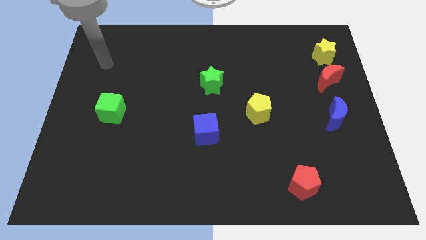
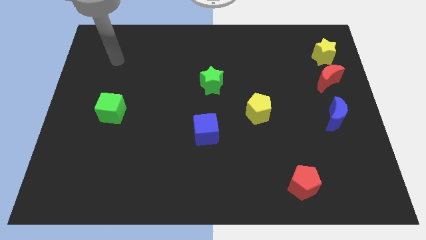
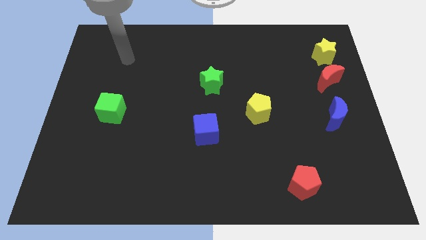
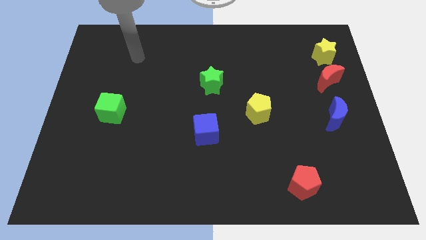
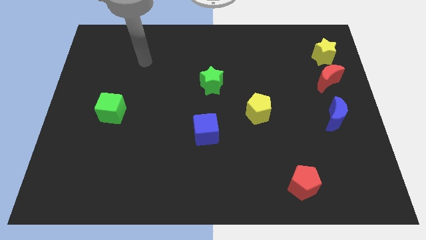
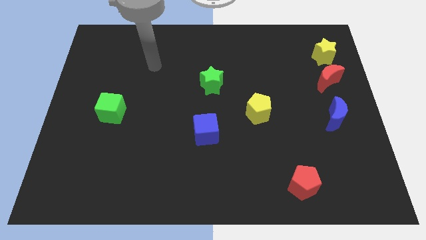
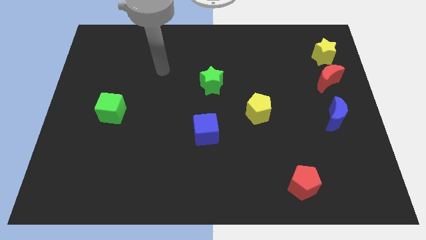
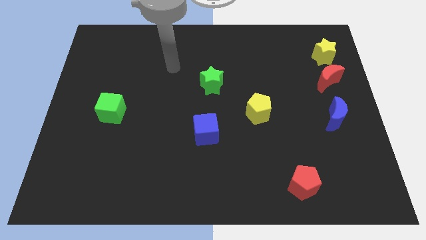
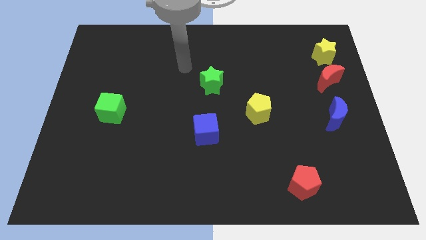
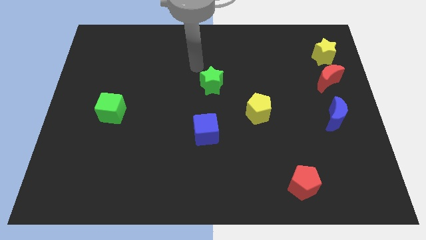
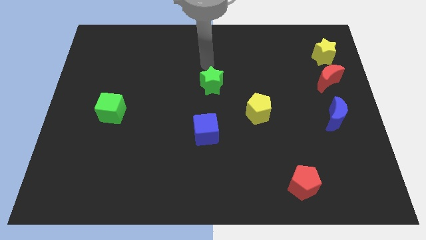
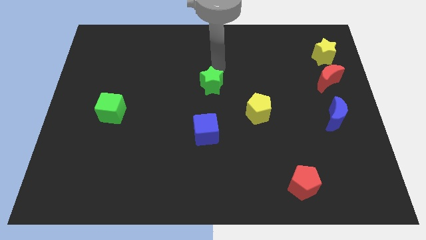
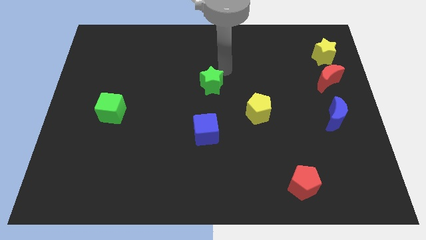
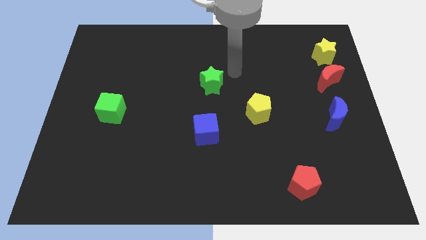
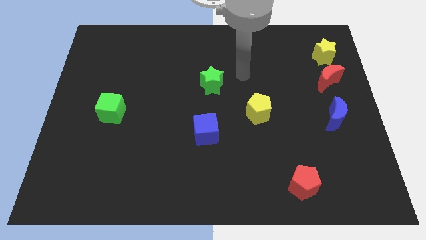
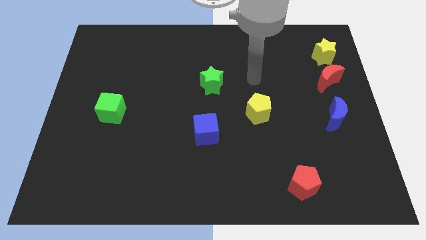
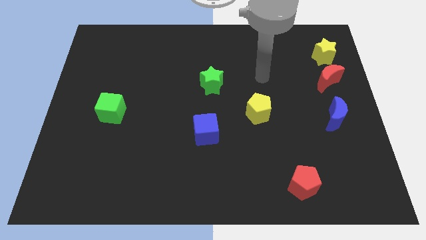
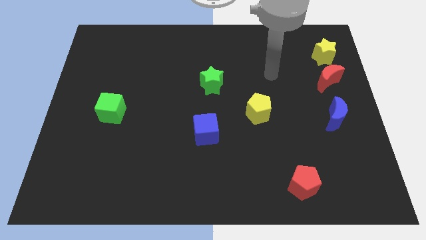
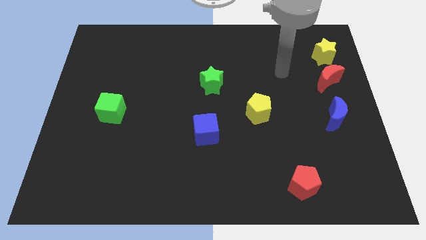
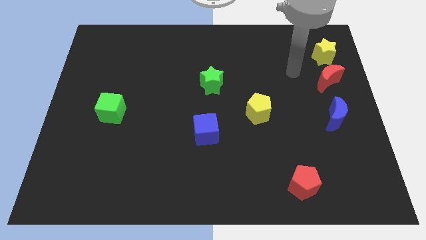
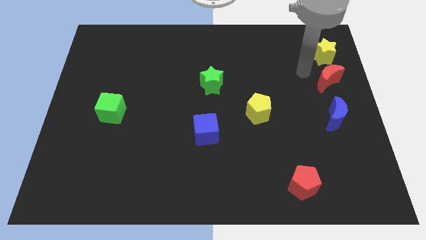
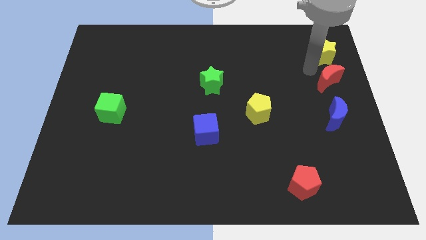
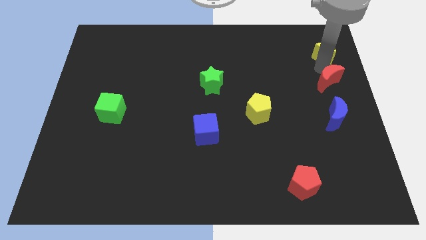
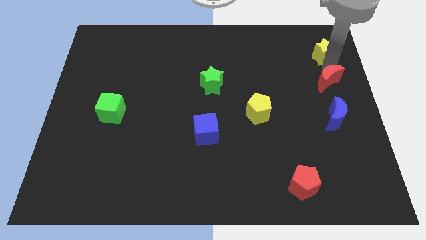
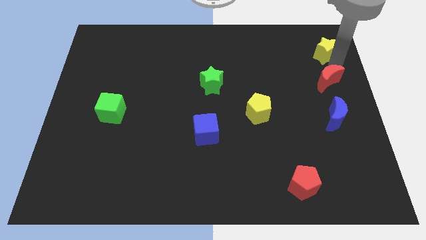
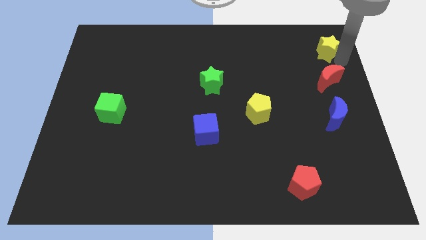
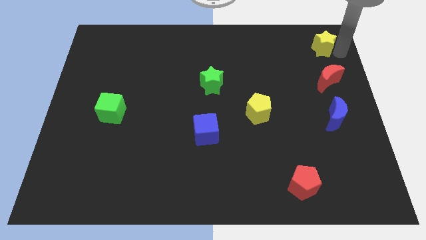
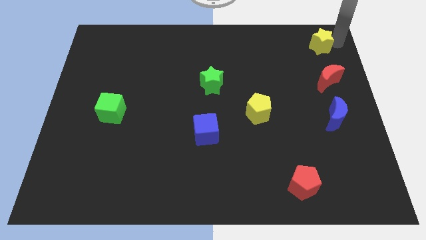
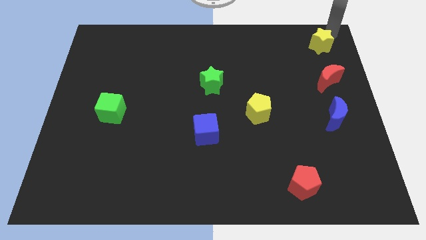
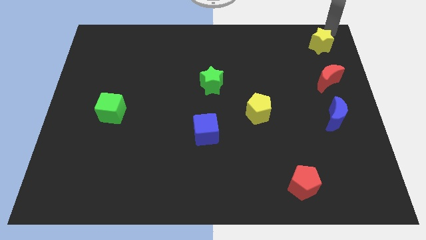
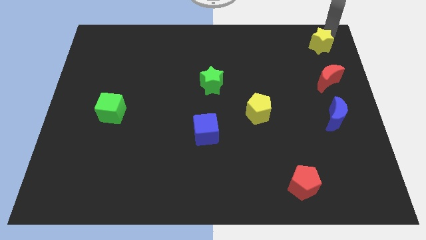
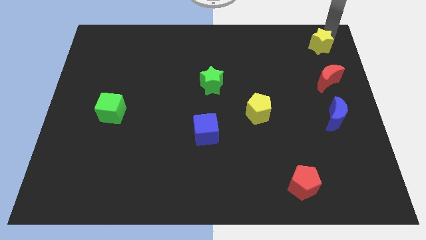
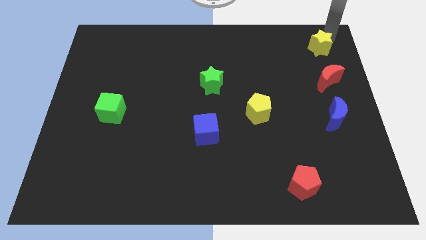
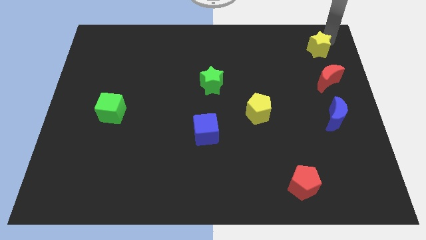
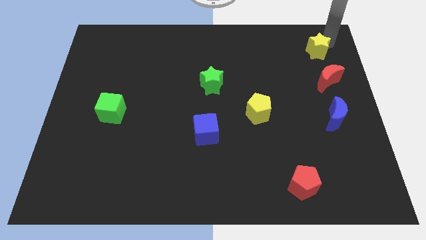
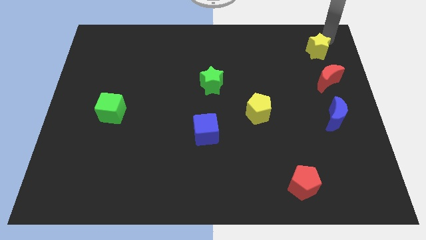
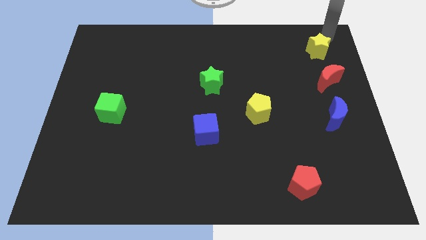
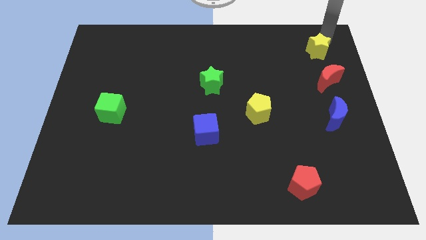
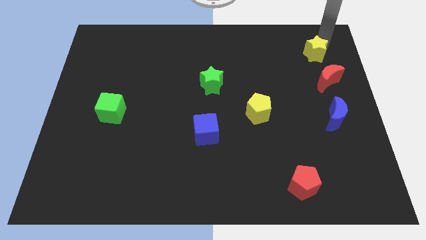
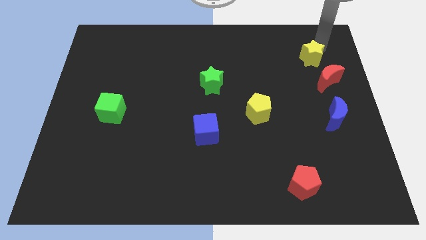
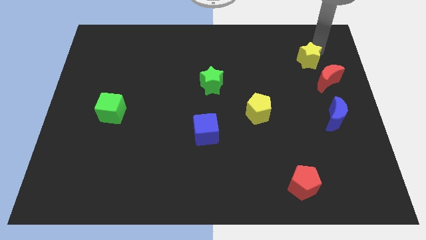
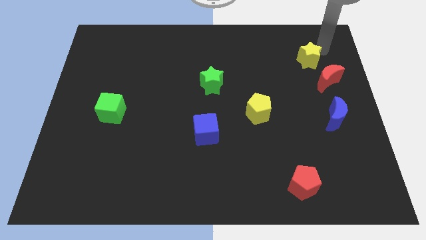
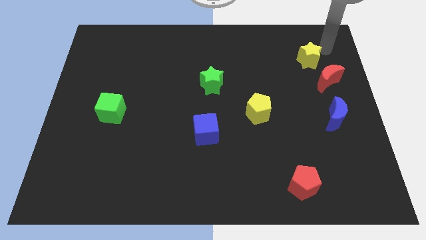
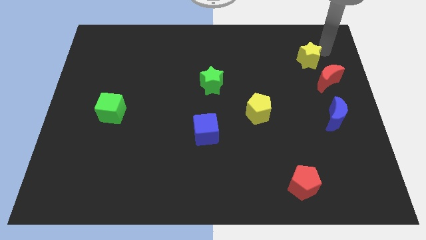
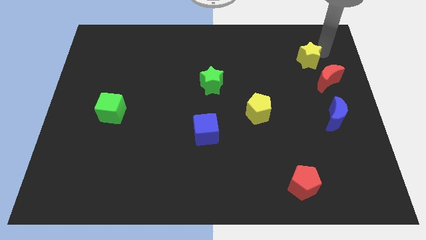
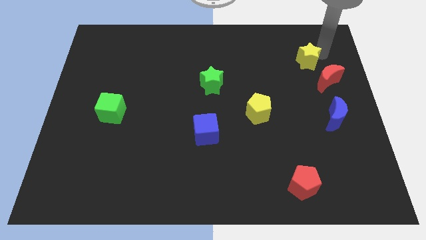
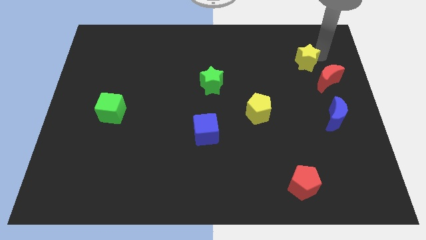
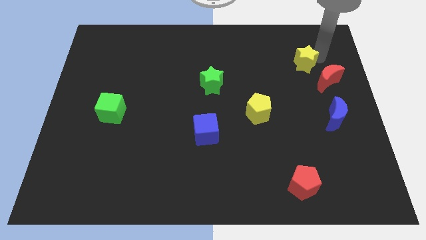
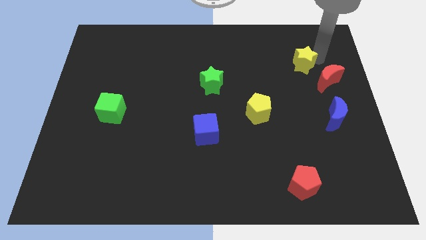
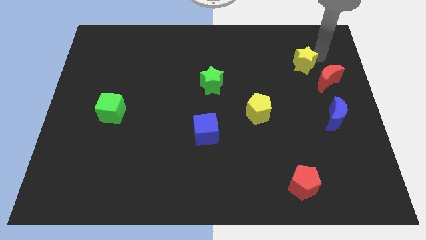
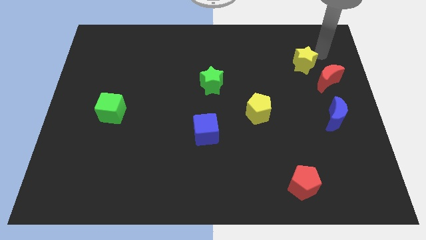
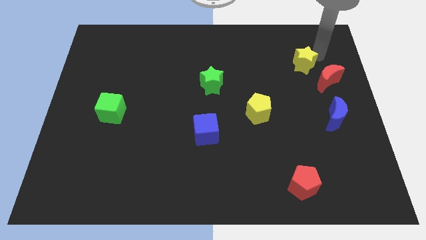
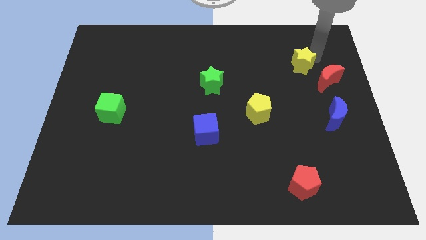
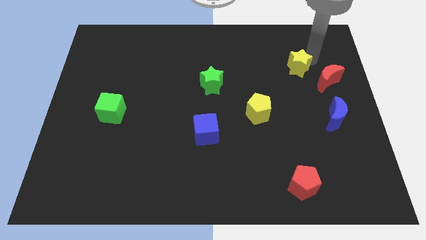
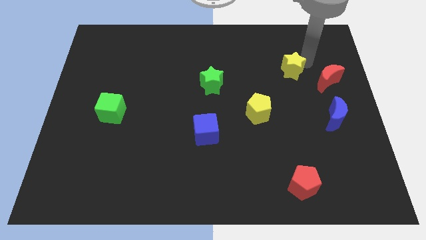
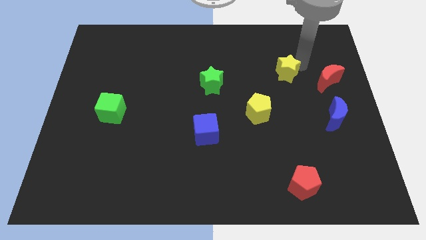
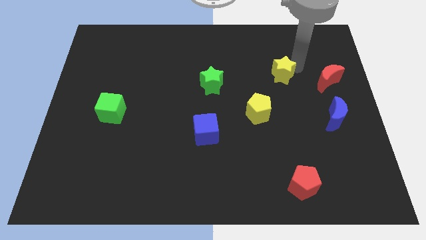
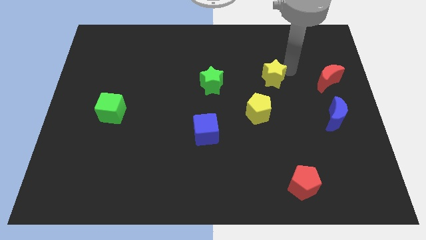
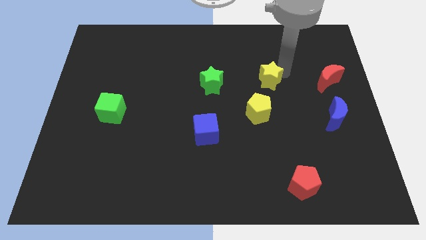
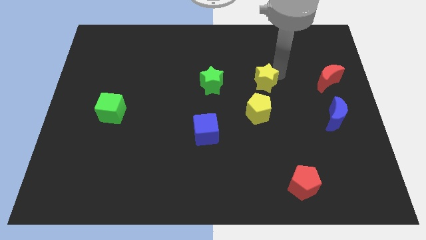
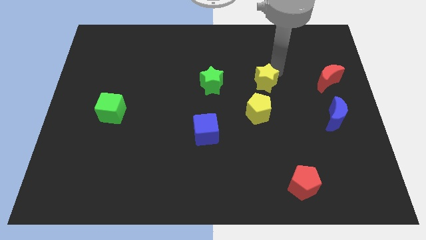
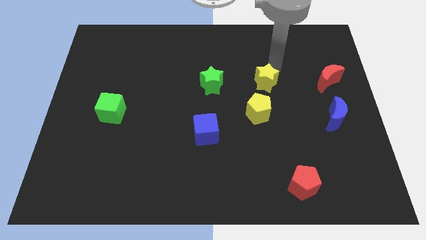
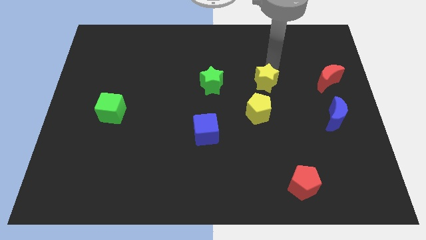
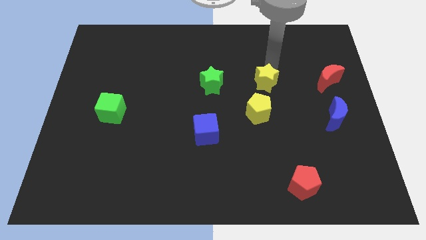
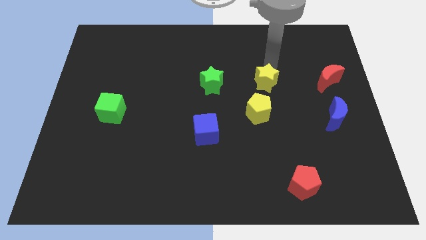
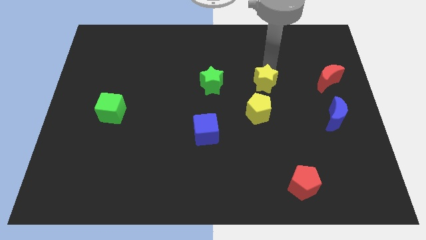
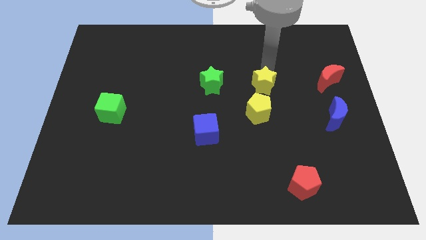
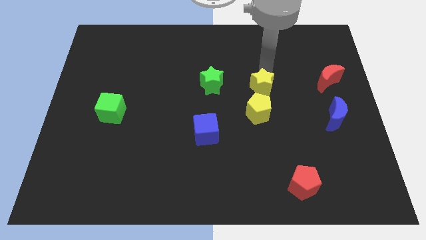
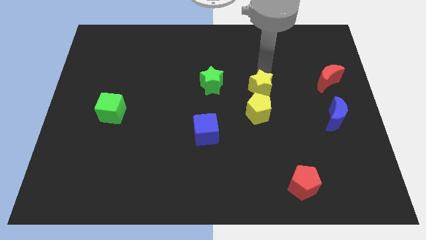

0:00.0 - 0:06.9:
move the yellow star diagonally downwards and to the left

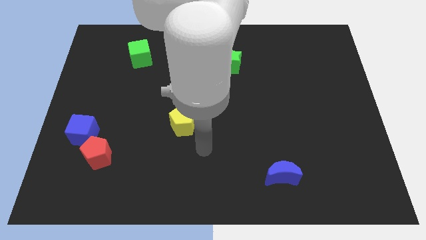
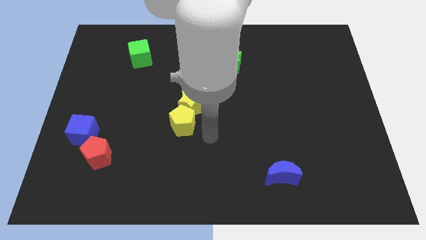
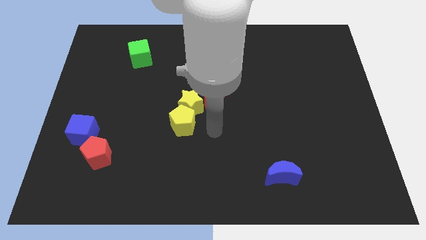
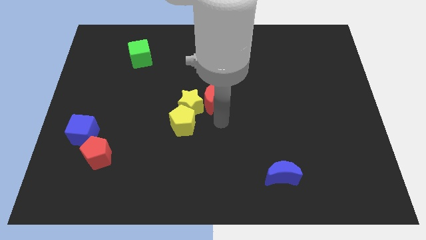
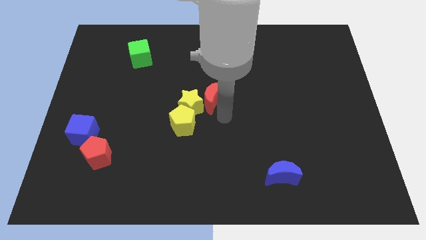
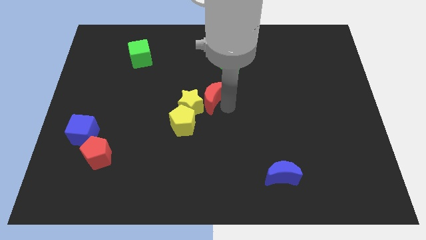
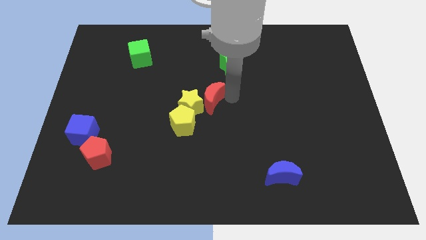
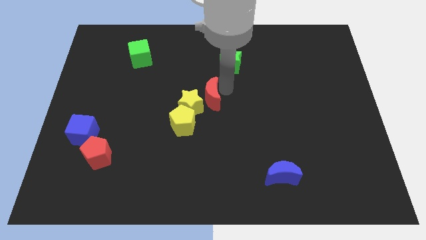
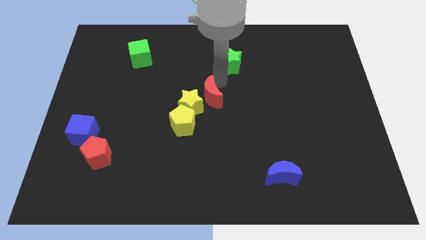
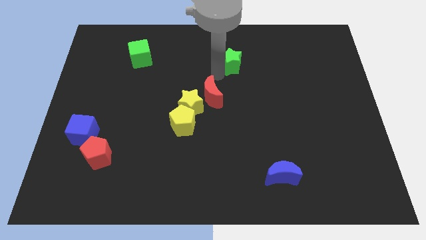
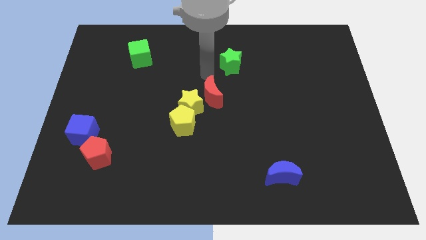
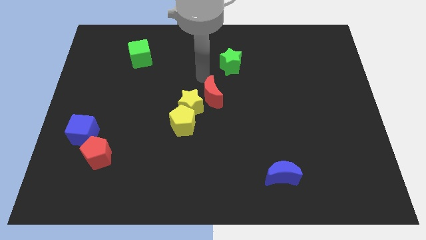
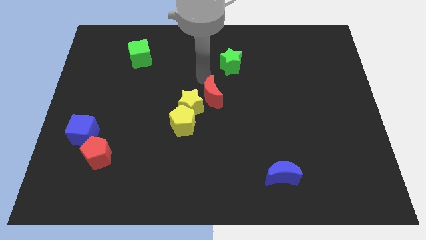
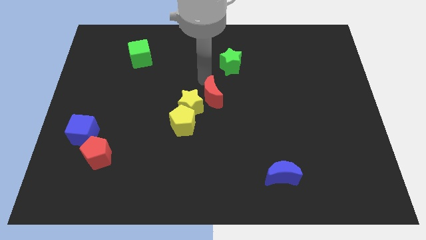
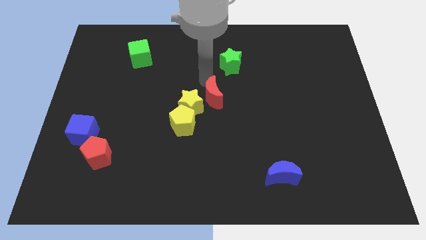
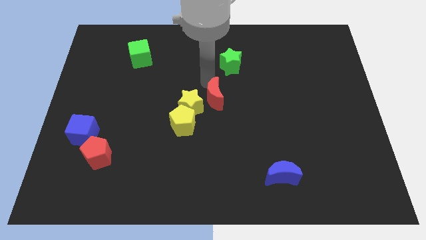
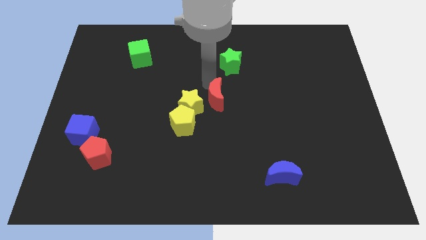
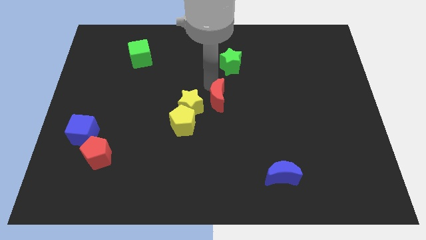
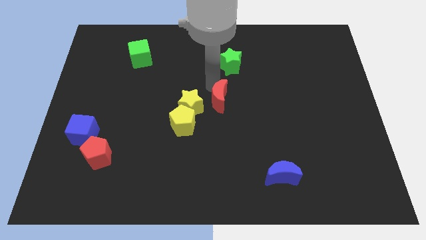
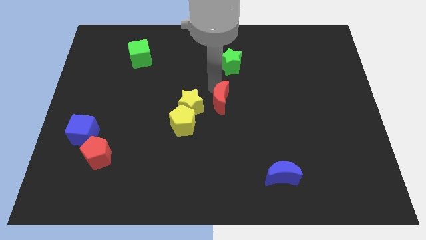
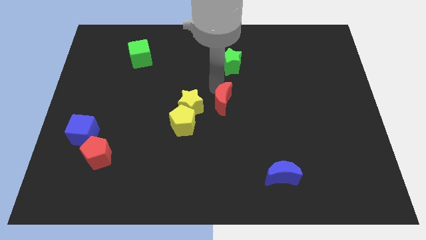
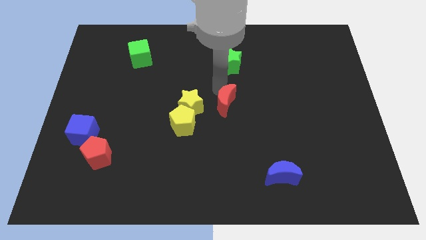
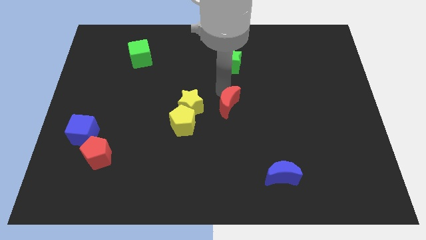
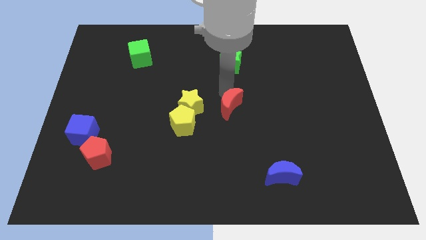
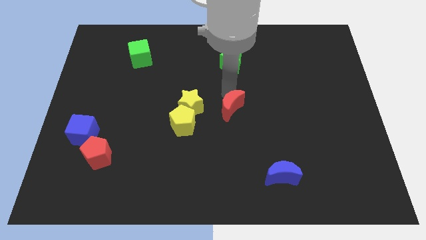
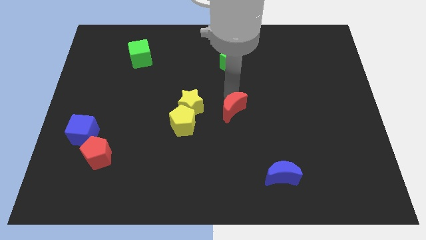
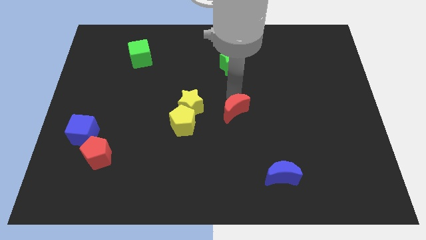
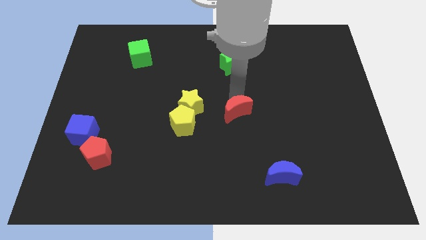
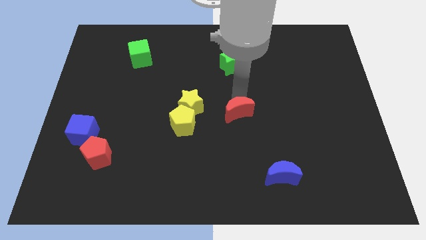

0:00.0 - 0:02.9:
slightly push the red moon down and then right
